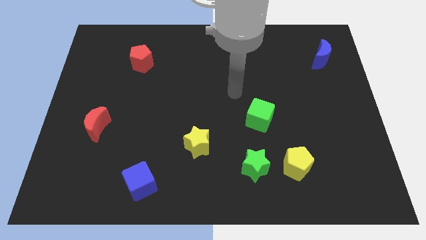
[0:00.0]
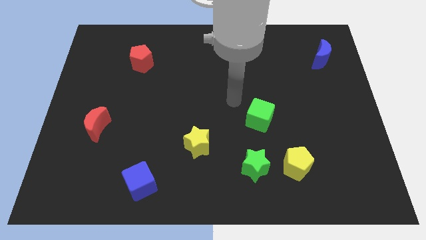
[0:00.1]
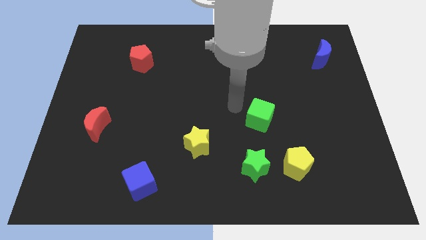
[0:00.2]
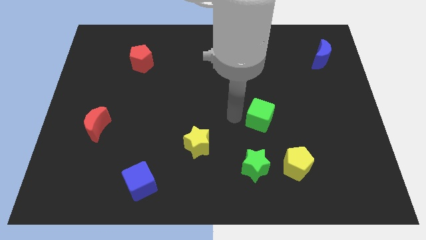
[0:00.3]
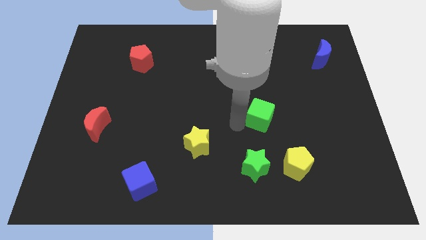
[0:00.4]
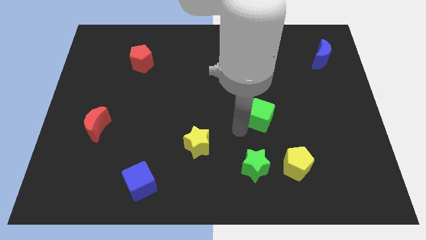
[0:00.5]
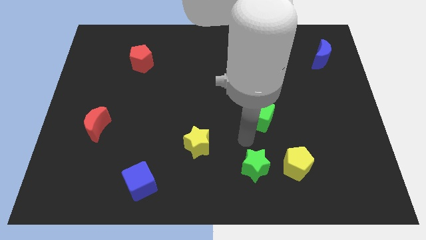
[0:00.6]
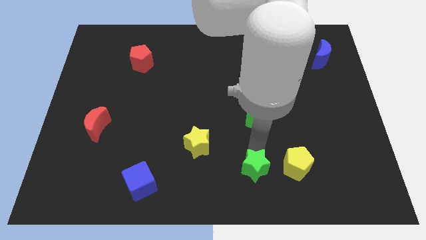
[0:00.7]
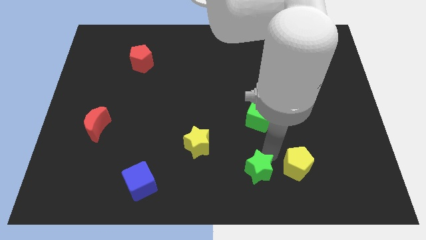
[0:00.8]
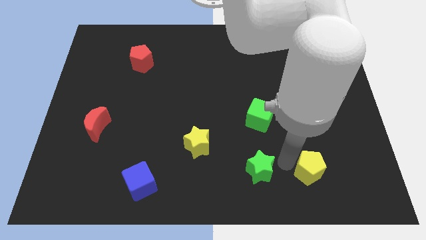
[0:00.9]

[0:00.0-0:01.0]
pull the green star apart from the yellow pentagon

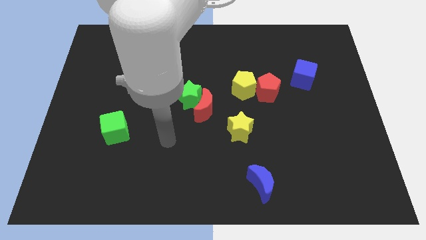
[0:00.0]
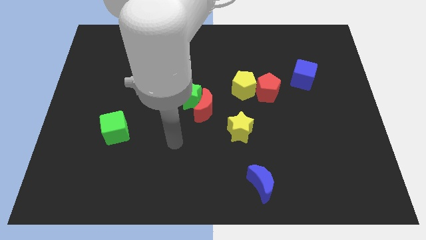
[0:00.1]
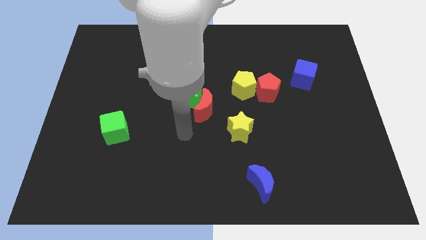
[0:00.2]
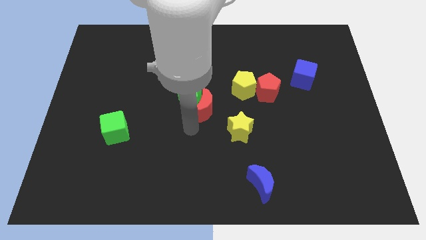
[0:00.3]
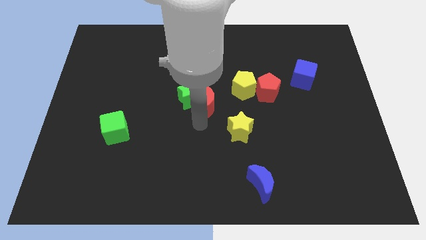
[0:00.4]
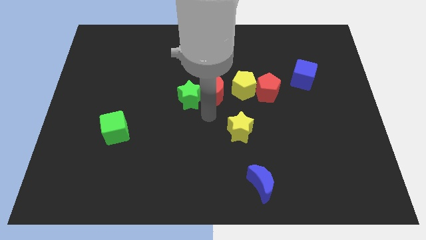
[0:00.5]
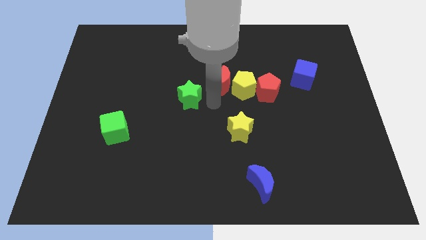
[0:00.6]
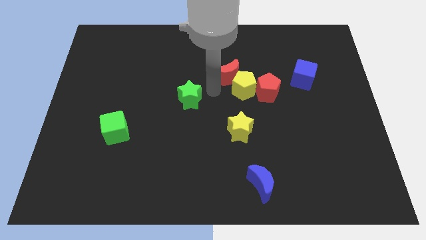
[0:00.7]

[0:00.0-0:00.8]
move the green star away from the red moon

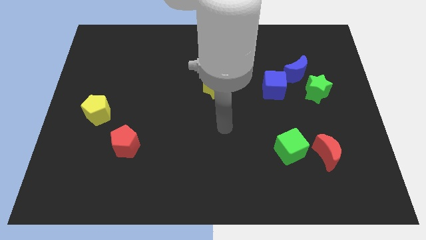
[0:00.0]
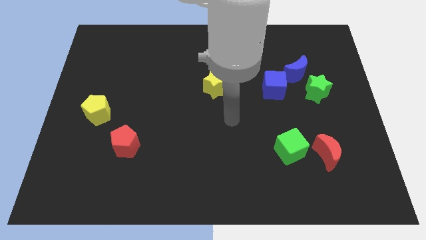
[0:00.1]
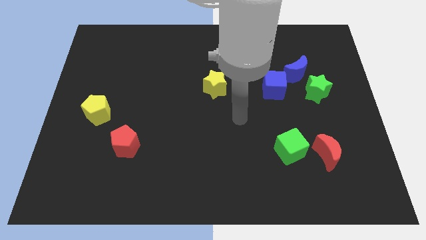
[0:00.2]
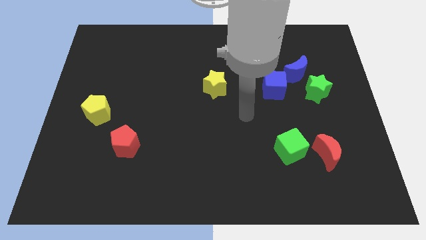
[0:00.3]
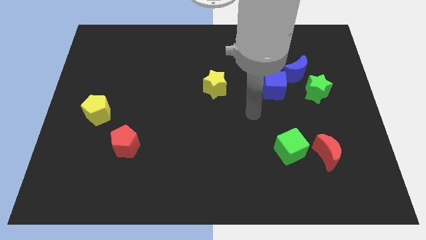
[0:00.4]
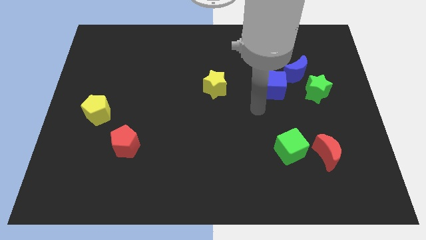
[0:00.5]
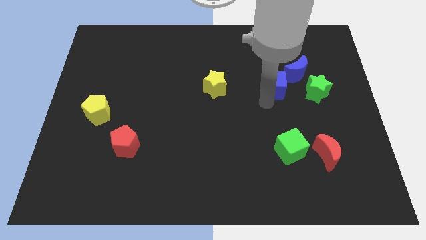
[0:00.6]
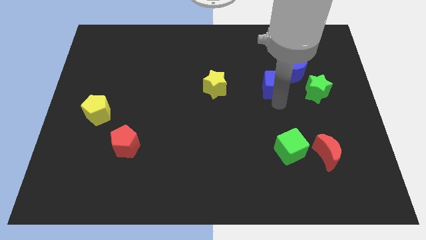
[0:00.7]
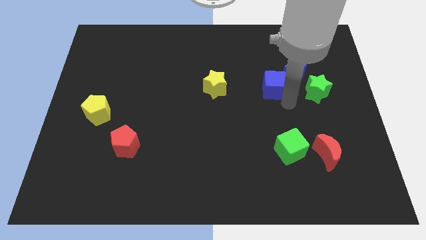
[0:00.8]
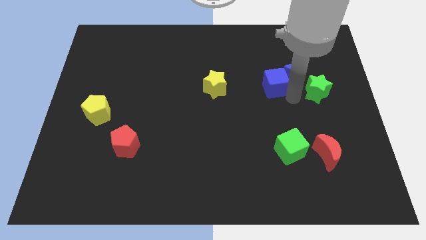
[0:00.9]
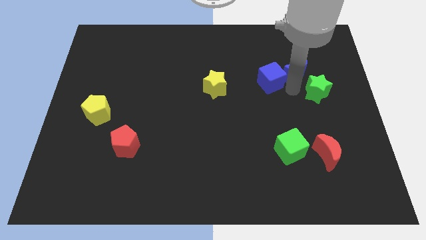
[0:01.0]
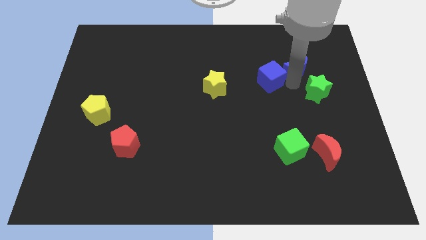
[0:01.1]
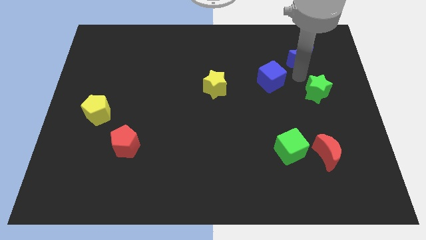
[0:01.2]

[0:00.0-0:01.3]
pull the green star apart from the blue moon

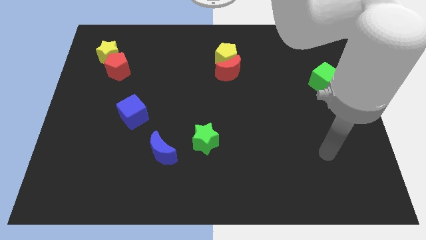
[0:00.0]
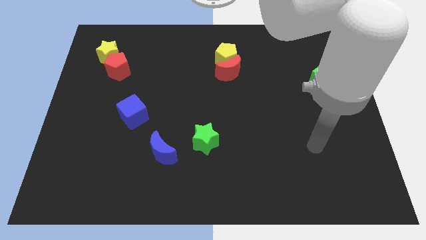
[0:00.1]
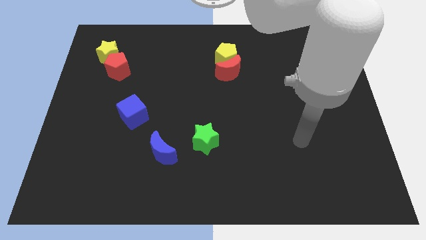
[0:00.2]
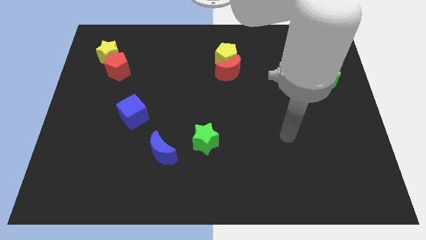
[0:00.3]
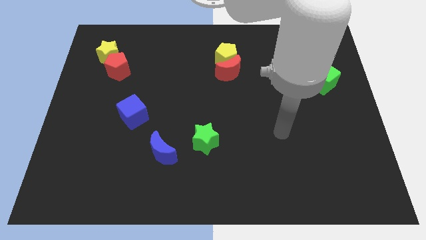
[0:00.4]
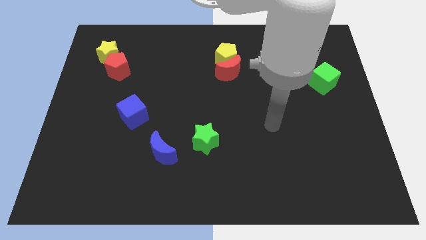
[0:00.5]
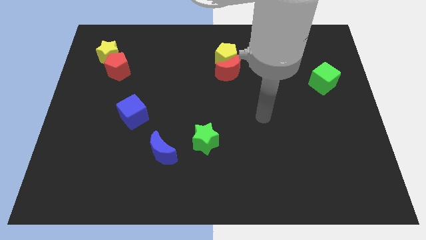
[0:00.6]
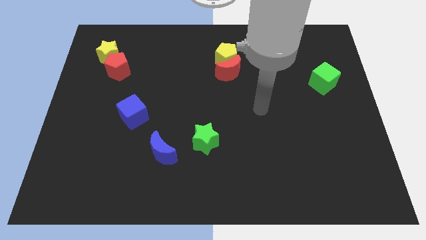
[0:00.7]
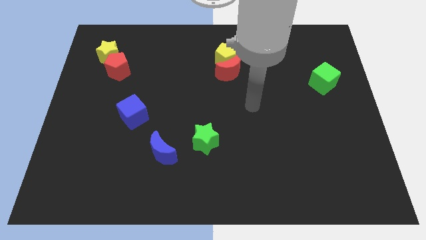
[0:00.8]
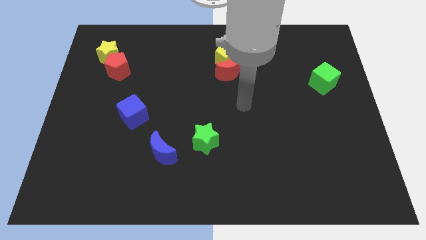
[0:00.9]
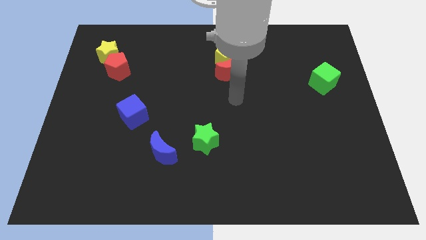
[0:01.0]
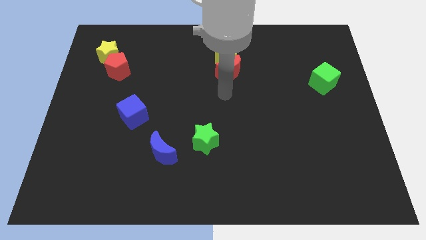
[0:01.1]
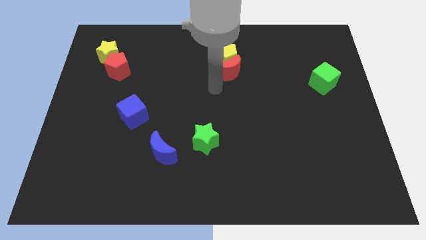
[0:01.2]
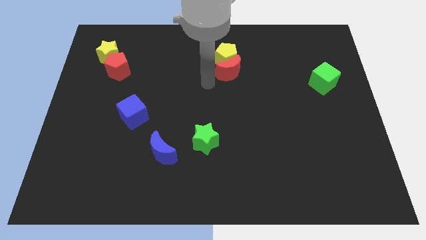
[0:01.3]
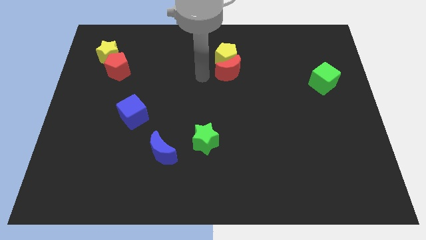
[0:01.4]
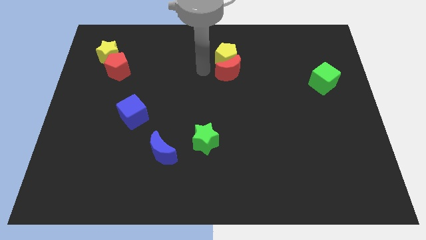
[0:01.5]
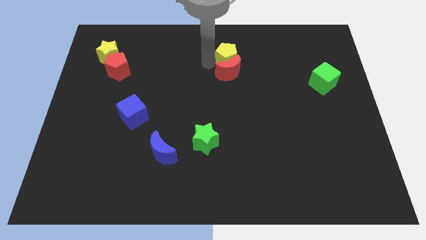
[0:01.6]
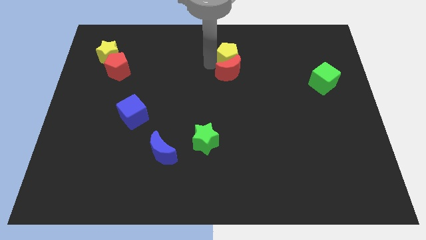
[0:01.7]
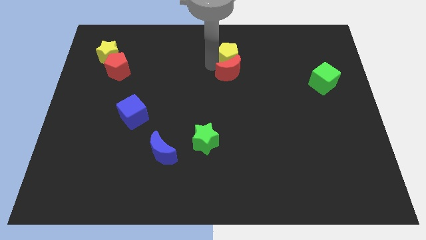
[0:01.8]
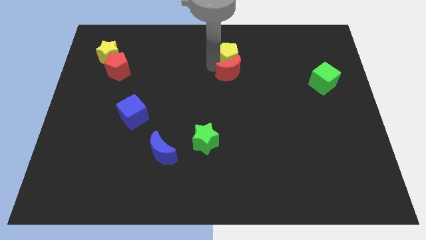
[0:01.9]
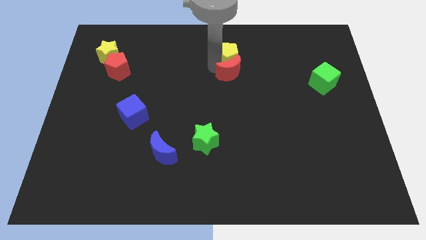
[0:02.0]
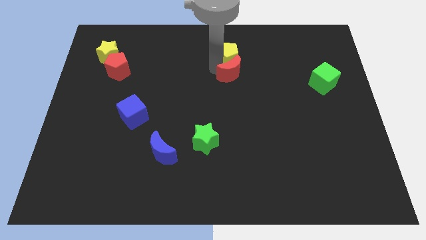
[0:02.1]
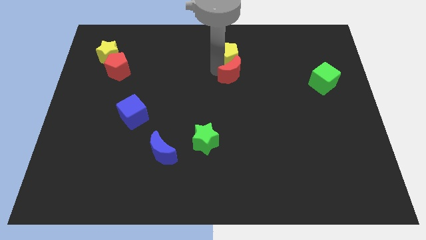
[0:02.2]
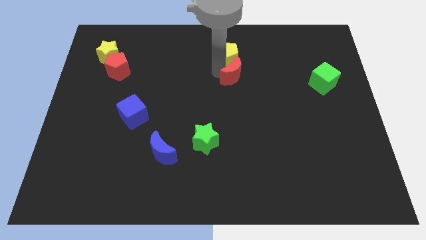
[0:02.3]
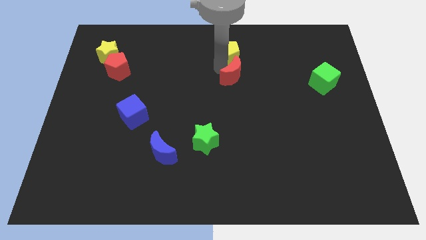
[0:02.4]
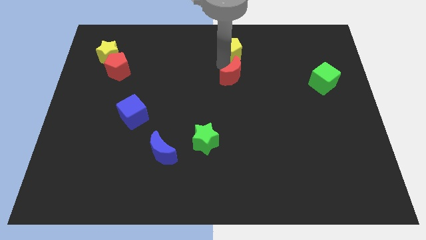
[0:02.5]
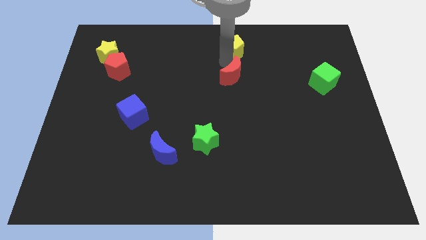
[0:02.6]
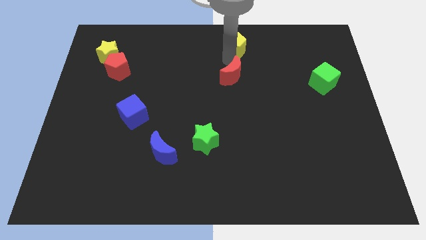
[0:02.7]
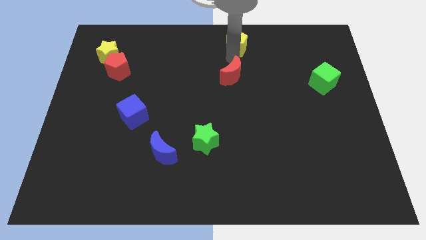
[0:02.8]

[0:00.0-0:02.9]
pull the red moon apart from the yellow pentagon

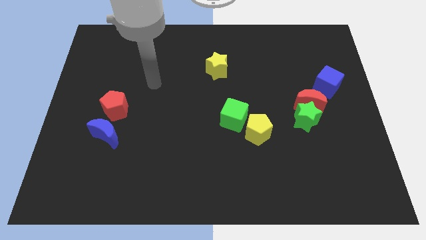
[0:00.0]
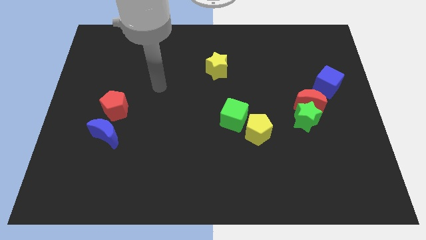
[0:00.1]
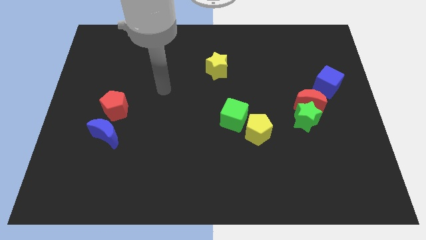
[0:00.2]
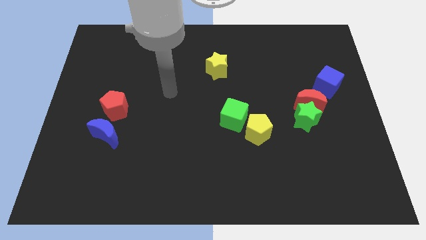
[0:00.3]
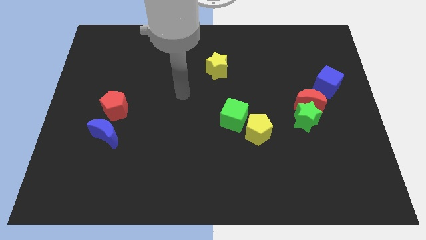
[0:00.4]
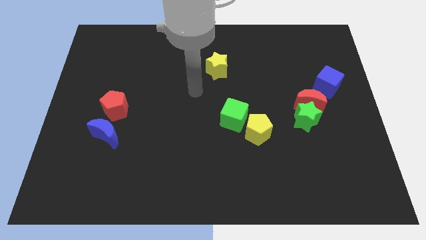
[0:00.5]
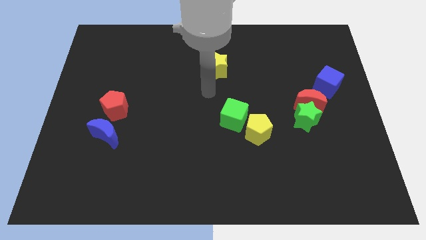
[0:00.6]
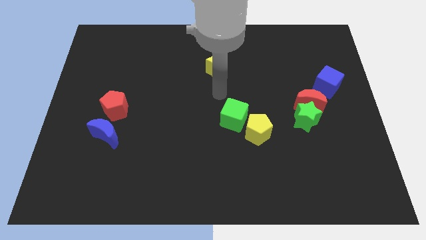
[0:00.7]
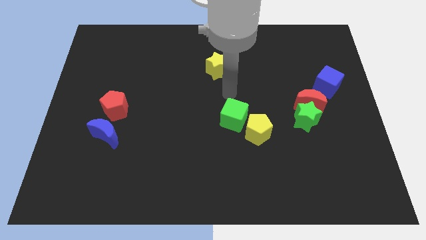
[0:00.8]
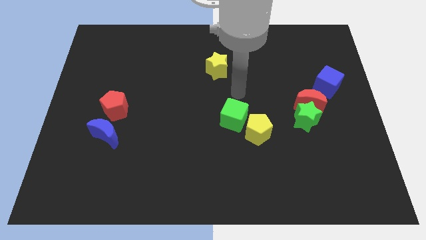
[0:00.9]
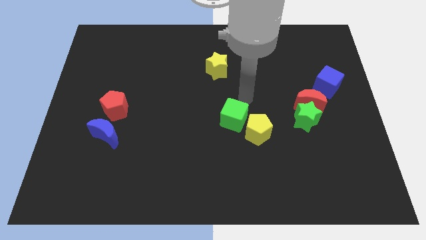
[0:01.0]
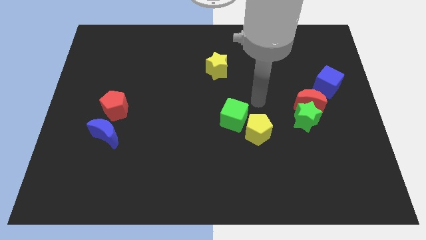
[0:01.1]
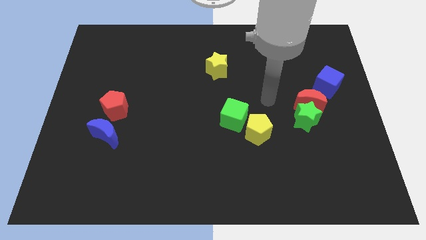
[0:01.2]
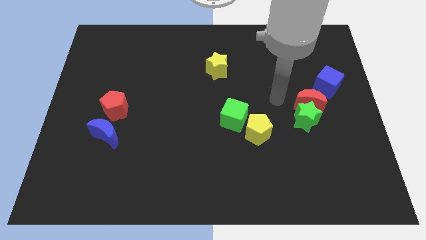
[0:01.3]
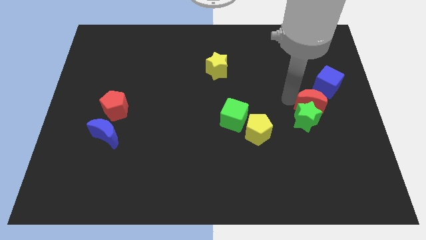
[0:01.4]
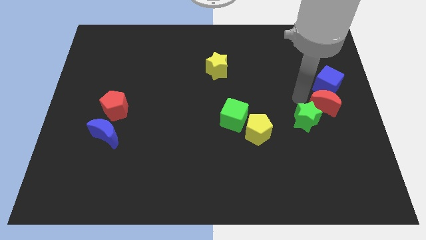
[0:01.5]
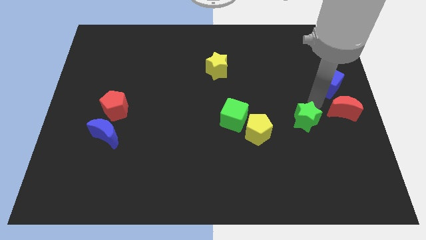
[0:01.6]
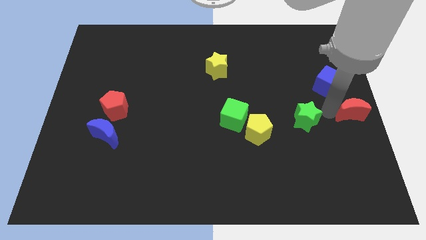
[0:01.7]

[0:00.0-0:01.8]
pull the green star apart from the red moon

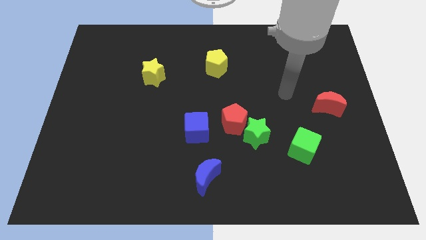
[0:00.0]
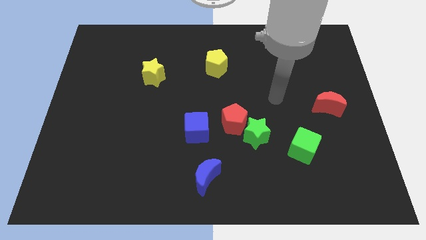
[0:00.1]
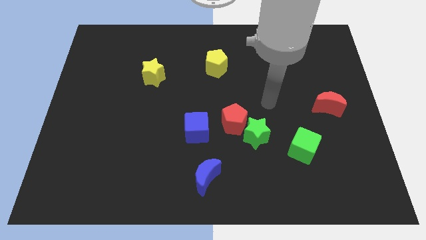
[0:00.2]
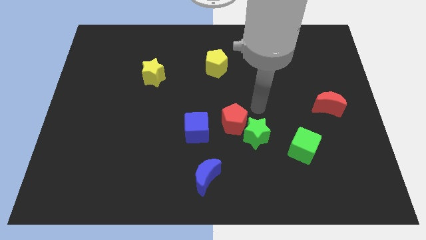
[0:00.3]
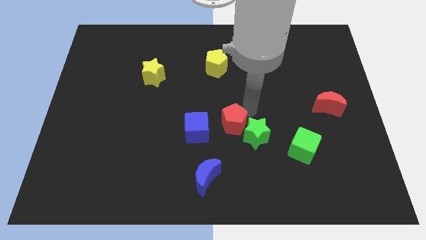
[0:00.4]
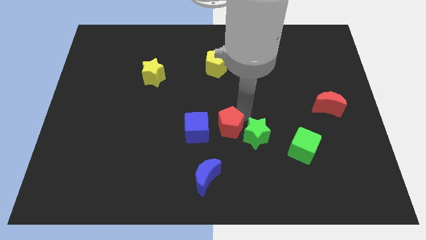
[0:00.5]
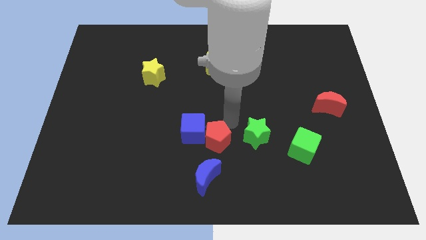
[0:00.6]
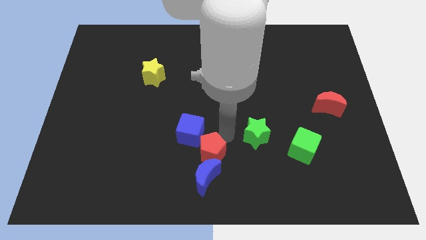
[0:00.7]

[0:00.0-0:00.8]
pull the green star apart from the red pentagon

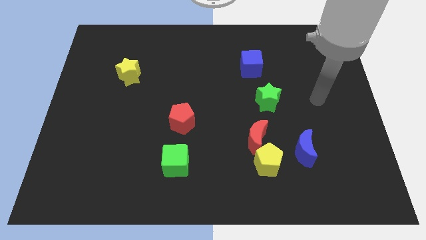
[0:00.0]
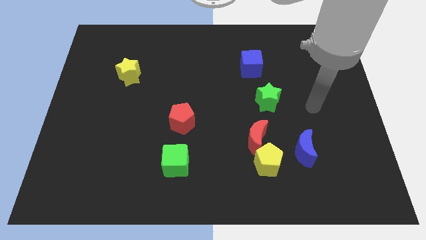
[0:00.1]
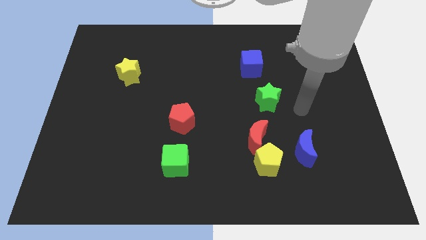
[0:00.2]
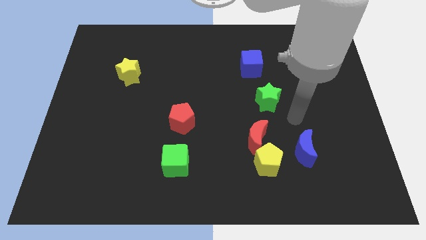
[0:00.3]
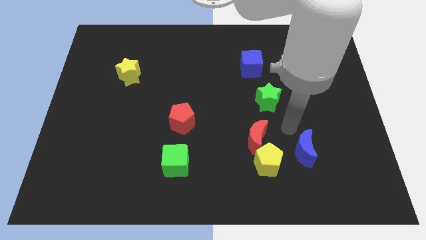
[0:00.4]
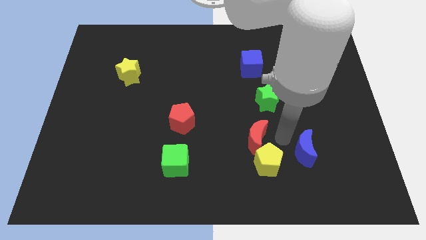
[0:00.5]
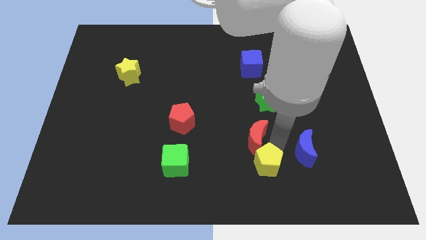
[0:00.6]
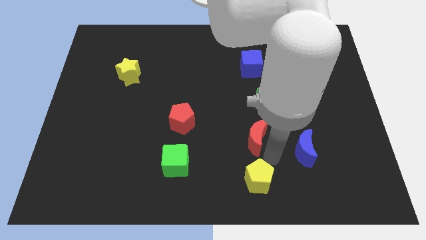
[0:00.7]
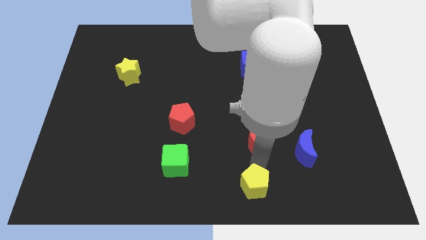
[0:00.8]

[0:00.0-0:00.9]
move the red moon away from the yellow pentagon
